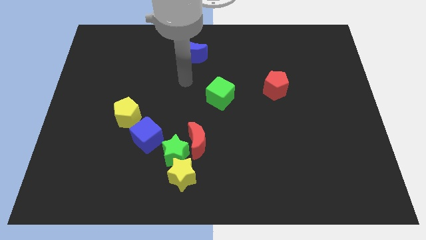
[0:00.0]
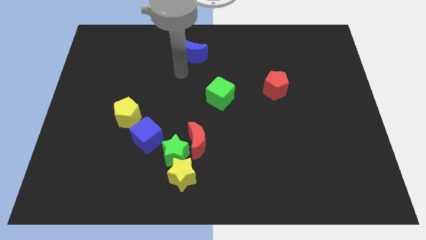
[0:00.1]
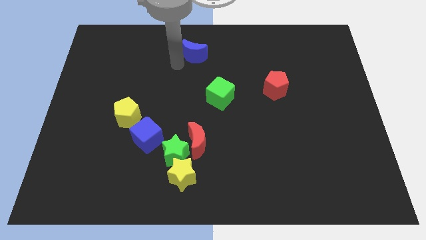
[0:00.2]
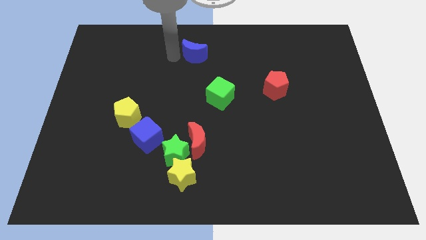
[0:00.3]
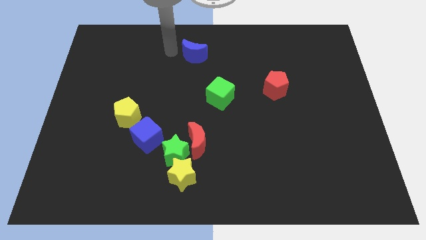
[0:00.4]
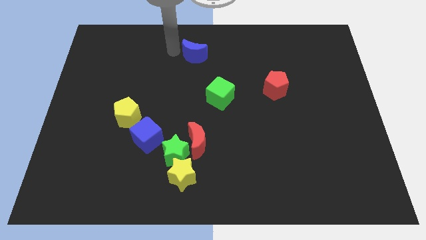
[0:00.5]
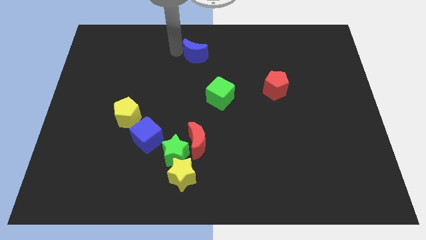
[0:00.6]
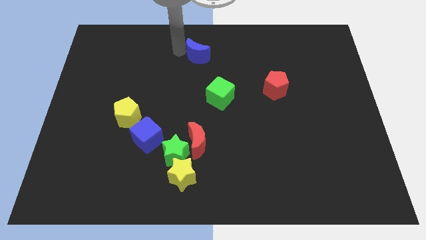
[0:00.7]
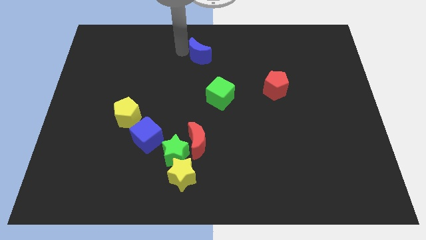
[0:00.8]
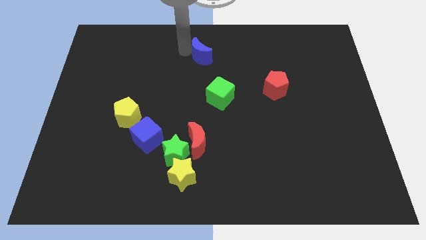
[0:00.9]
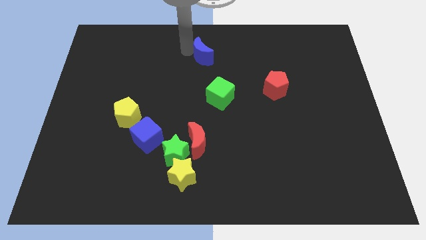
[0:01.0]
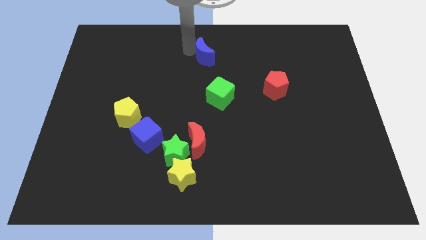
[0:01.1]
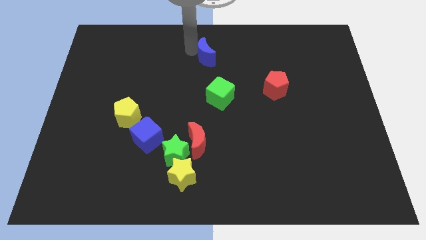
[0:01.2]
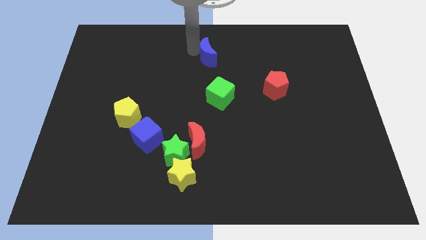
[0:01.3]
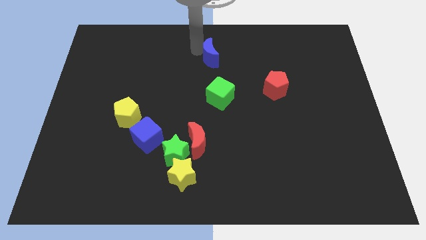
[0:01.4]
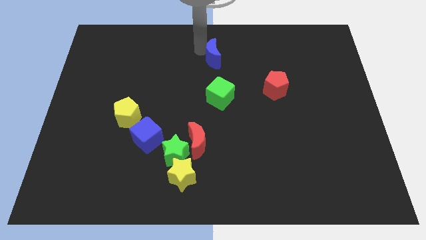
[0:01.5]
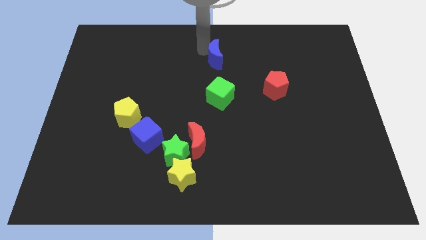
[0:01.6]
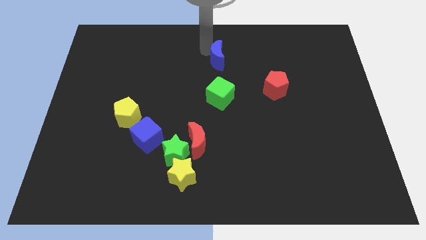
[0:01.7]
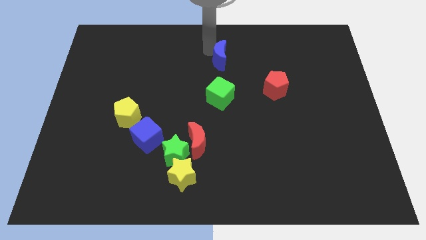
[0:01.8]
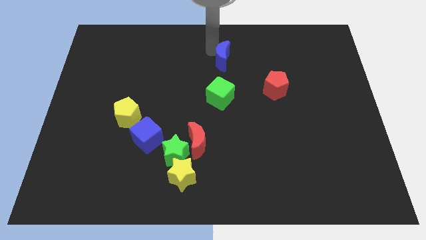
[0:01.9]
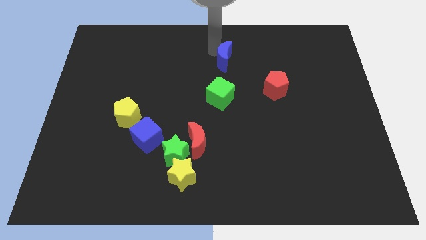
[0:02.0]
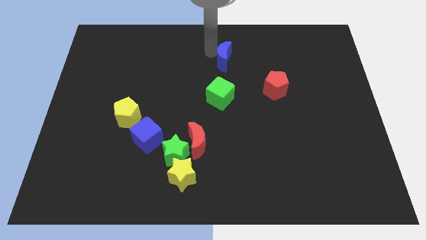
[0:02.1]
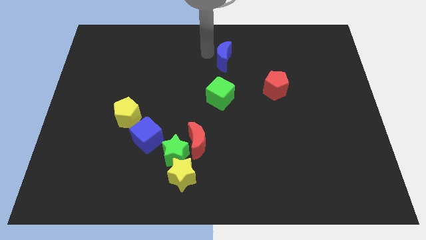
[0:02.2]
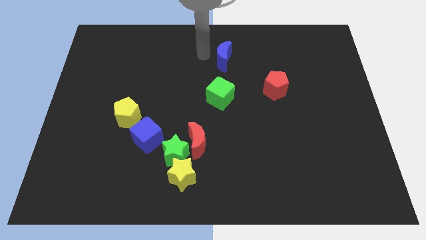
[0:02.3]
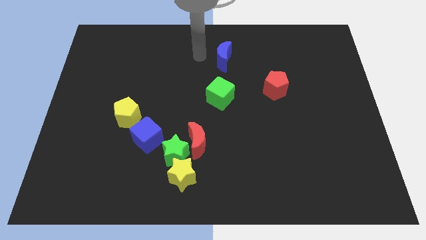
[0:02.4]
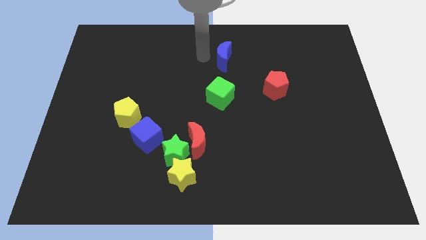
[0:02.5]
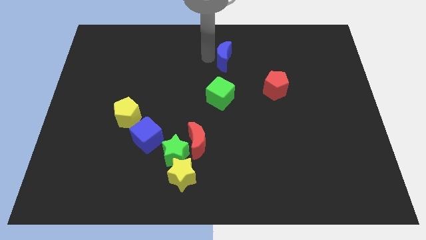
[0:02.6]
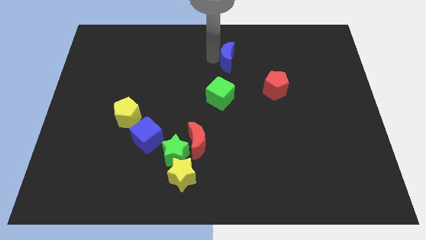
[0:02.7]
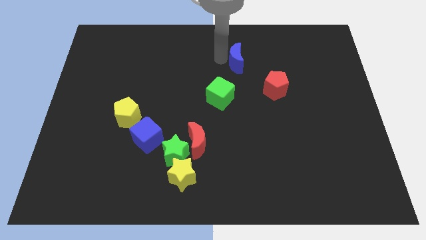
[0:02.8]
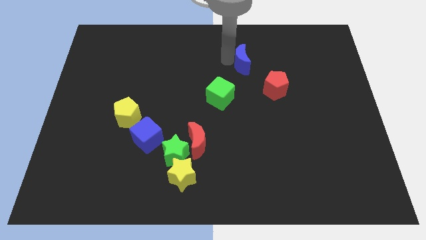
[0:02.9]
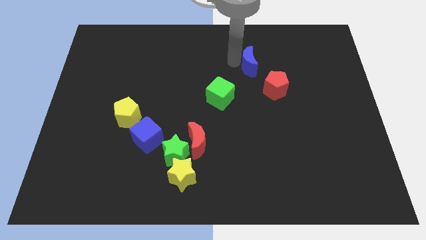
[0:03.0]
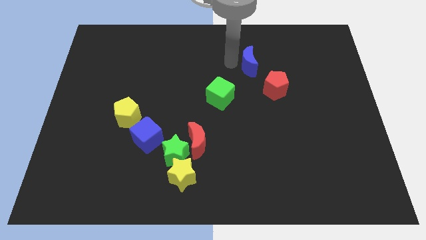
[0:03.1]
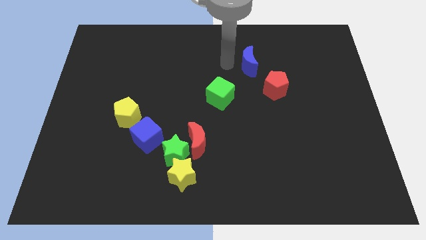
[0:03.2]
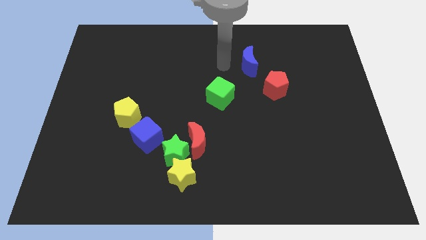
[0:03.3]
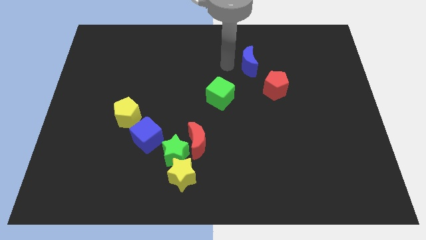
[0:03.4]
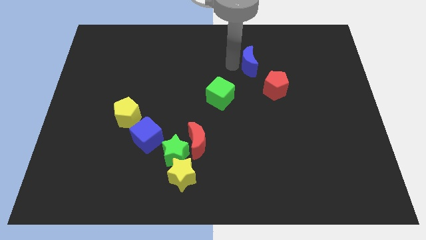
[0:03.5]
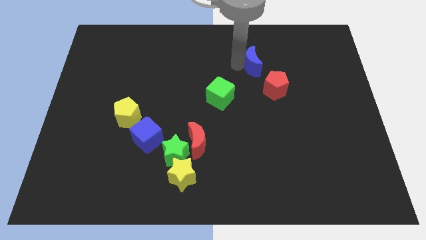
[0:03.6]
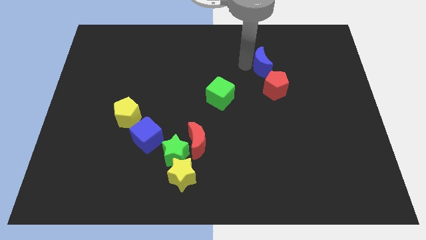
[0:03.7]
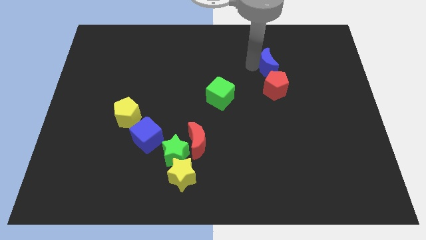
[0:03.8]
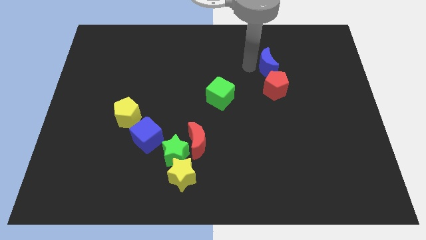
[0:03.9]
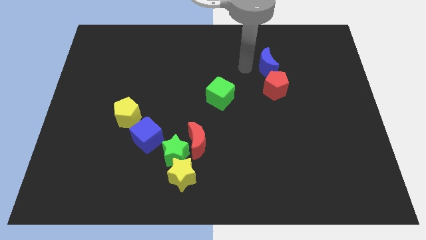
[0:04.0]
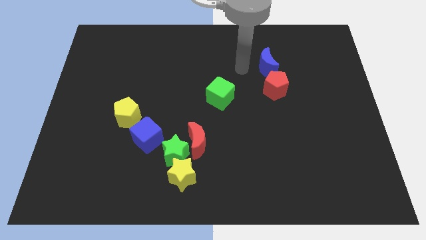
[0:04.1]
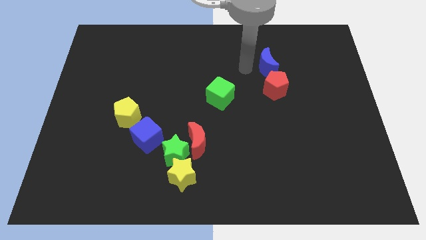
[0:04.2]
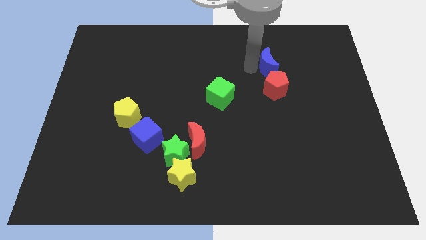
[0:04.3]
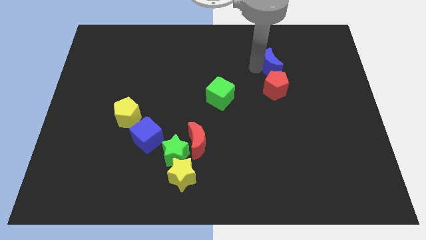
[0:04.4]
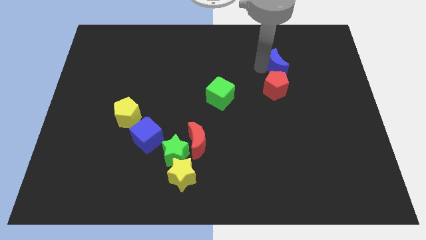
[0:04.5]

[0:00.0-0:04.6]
push the blue moon to the right

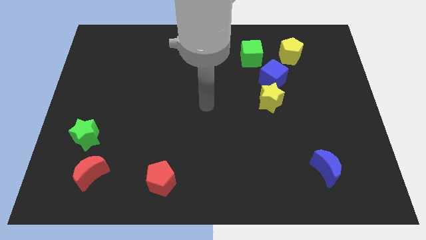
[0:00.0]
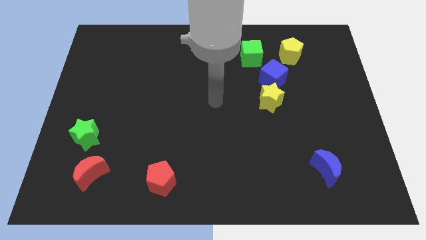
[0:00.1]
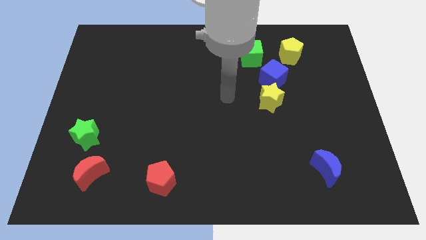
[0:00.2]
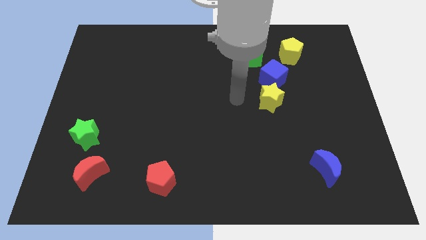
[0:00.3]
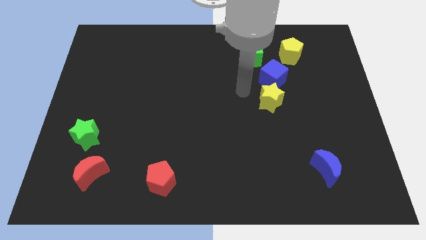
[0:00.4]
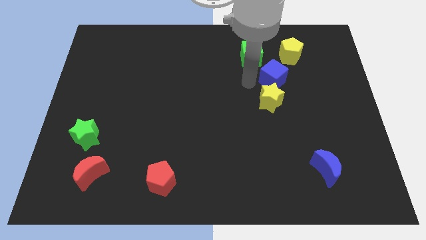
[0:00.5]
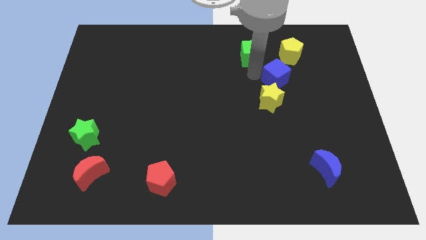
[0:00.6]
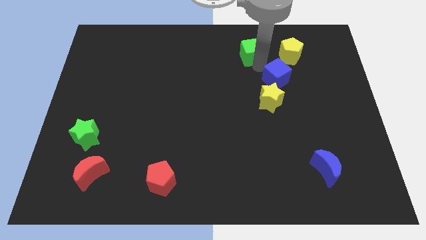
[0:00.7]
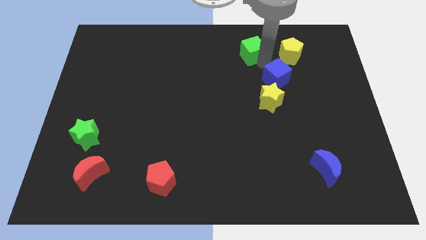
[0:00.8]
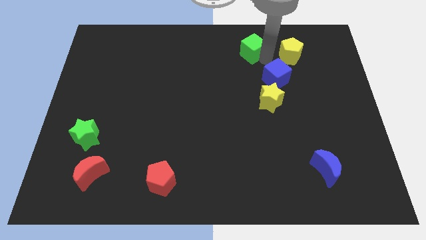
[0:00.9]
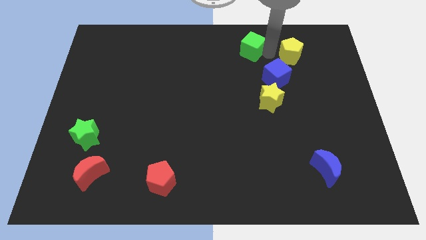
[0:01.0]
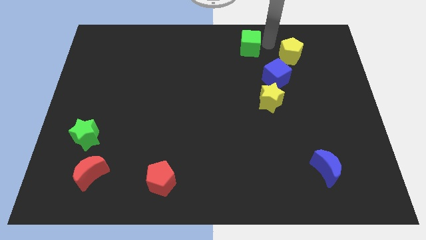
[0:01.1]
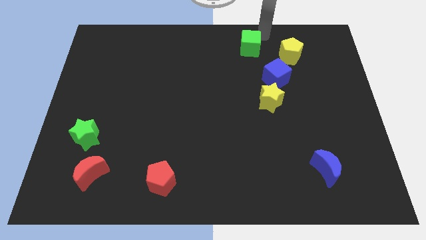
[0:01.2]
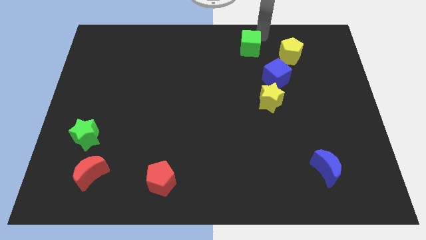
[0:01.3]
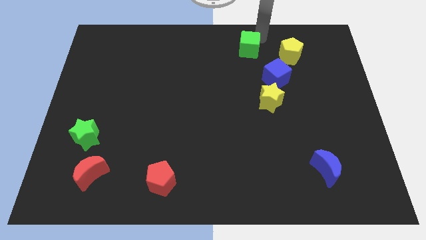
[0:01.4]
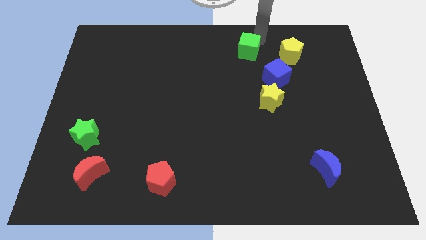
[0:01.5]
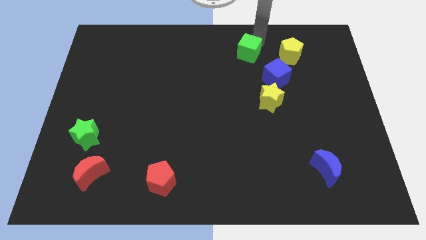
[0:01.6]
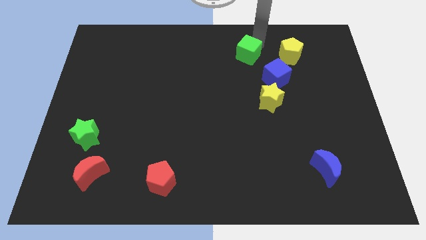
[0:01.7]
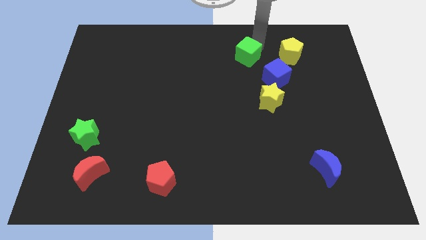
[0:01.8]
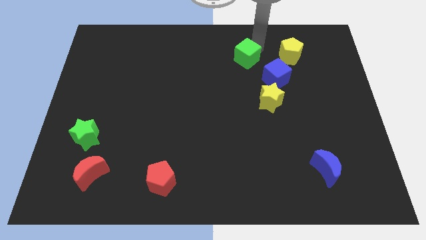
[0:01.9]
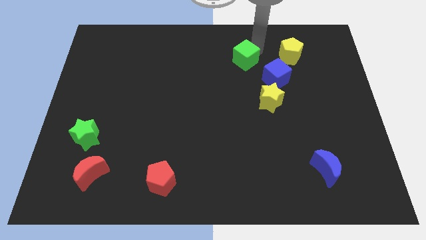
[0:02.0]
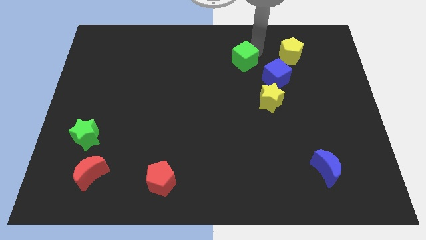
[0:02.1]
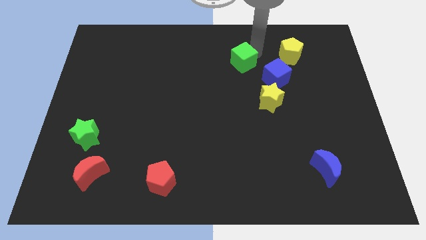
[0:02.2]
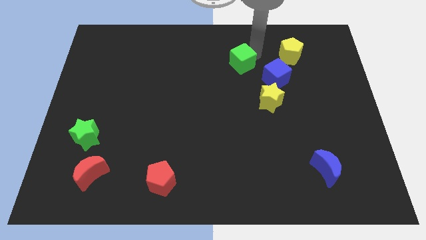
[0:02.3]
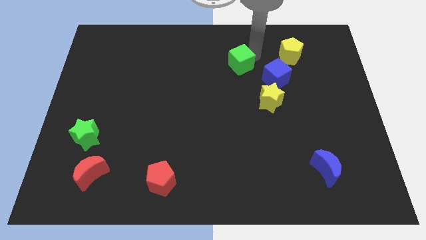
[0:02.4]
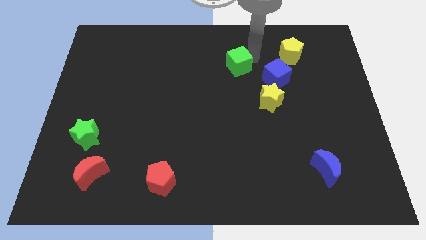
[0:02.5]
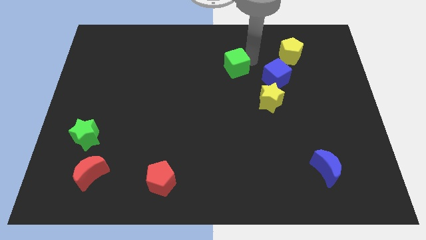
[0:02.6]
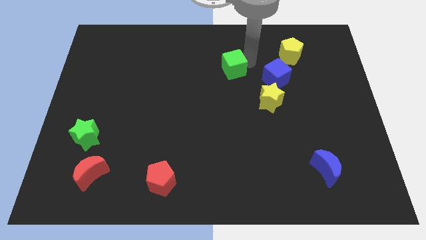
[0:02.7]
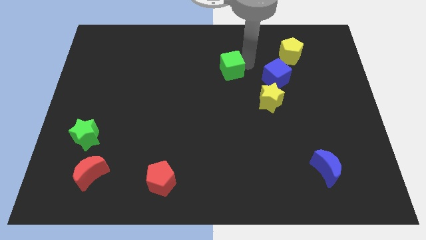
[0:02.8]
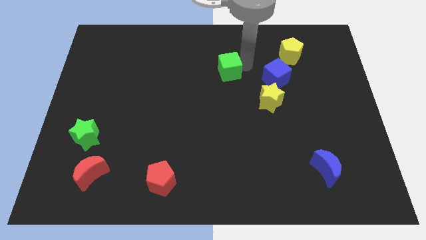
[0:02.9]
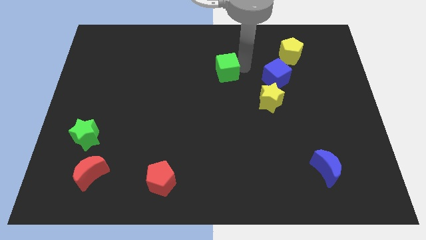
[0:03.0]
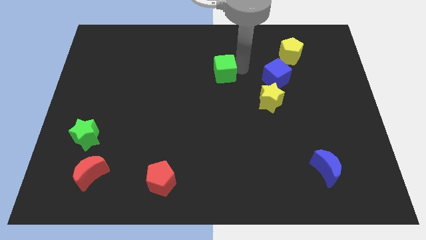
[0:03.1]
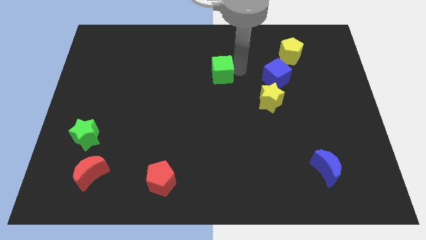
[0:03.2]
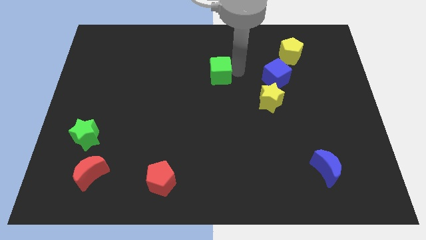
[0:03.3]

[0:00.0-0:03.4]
move the green cube to the left a little

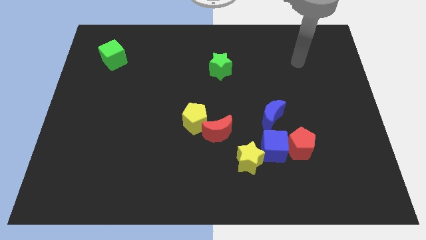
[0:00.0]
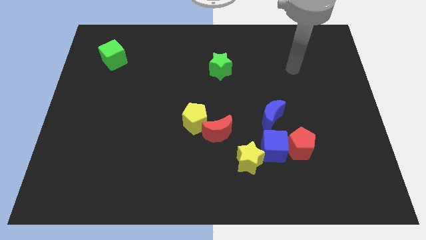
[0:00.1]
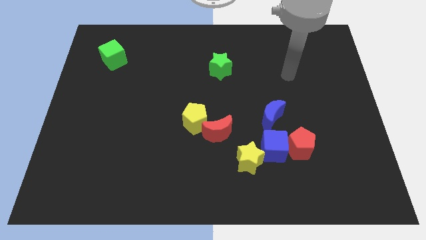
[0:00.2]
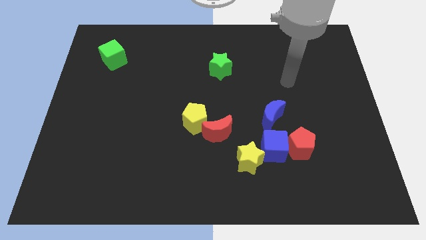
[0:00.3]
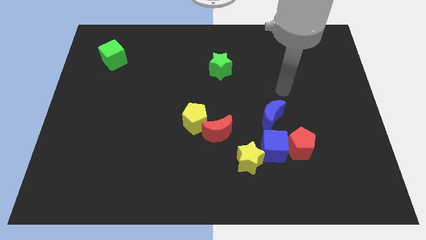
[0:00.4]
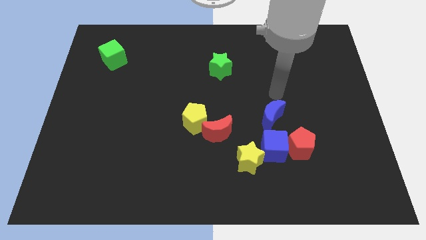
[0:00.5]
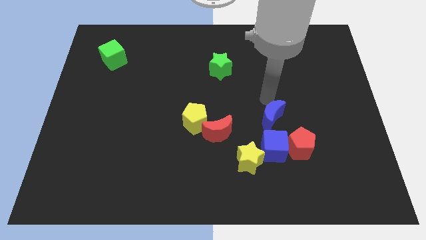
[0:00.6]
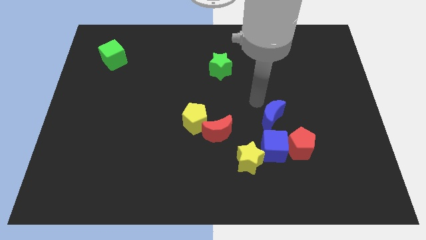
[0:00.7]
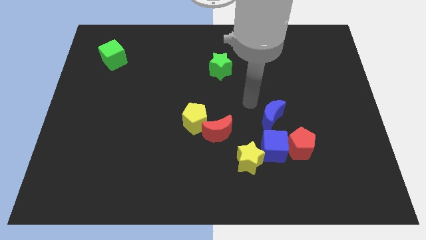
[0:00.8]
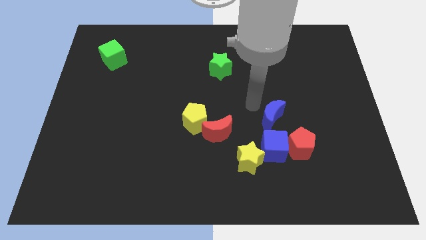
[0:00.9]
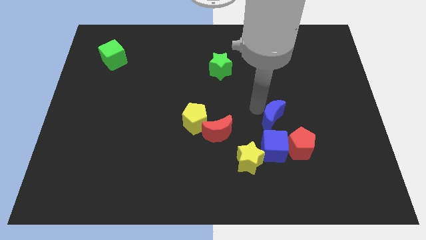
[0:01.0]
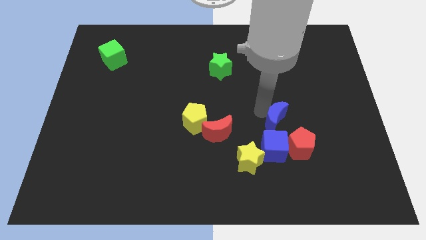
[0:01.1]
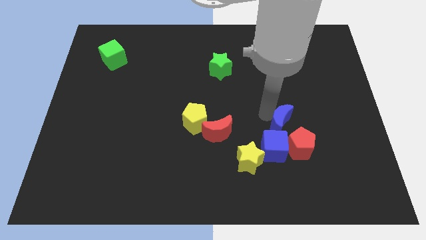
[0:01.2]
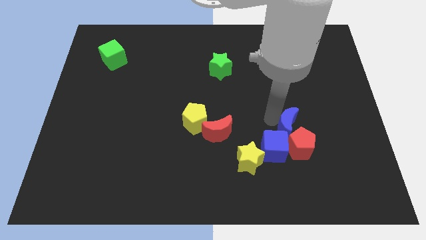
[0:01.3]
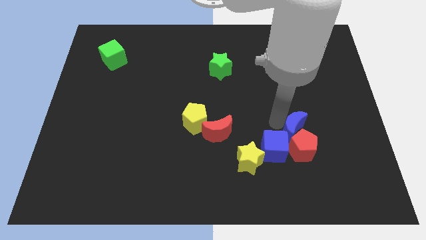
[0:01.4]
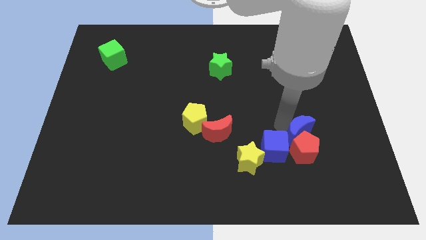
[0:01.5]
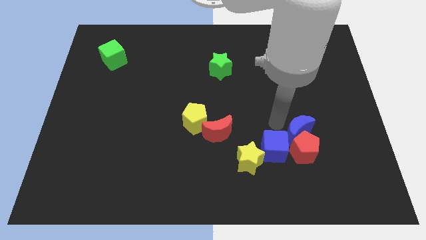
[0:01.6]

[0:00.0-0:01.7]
move the blue moon a bit down and then right
